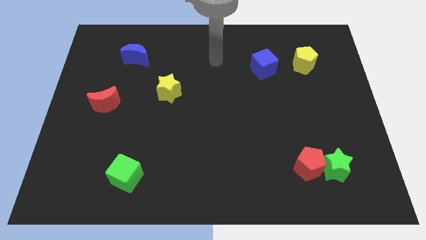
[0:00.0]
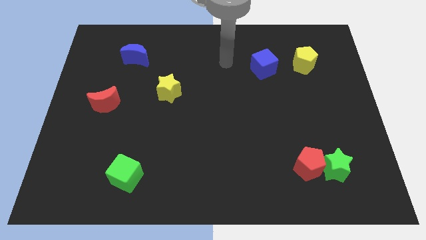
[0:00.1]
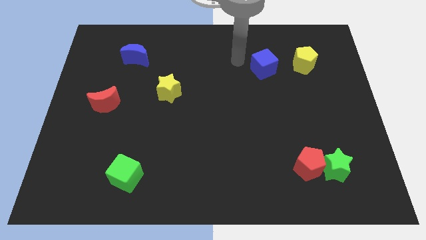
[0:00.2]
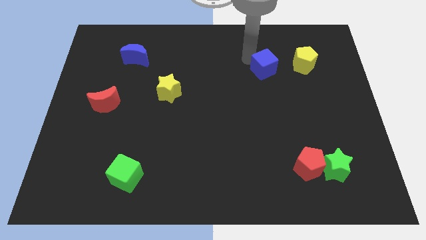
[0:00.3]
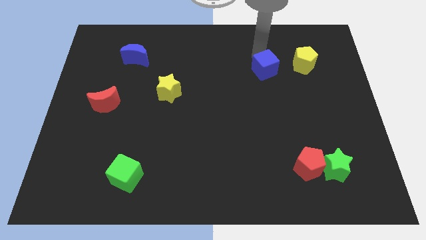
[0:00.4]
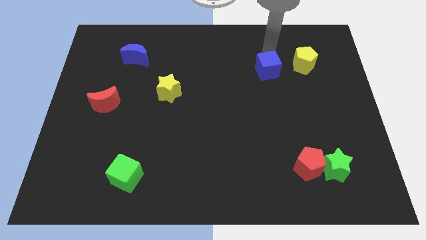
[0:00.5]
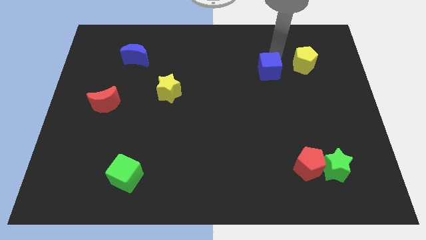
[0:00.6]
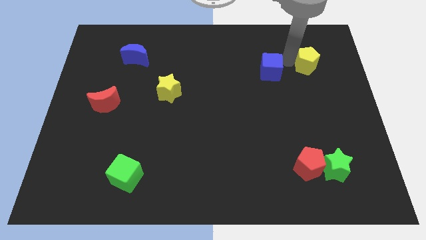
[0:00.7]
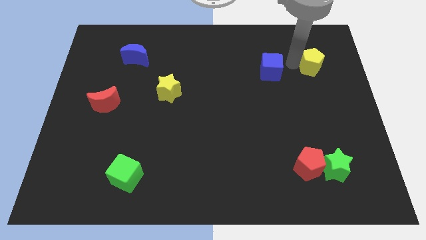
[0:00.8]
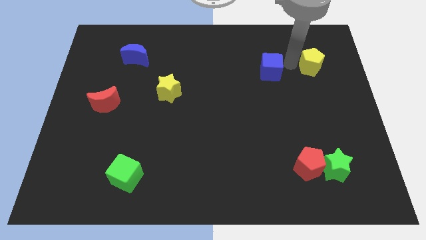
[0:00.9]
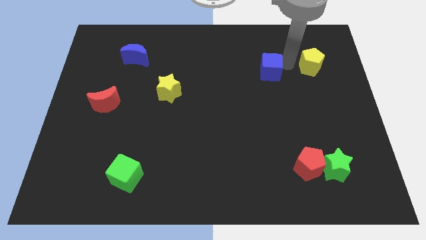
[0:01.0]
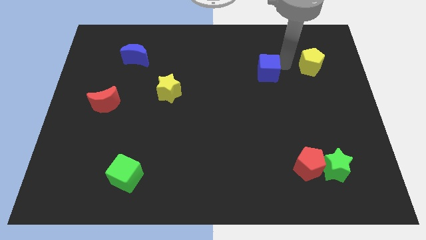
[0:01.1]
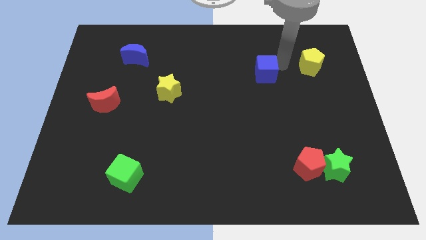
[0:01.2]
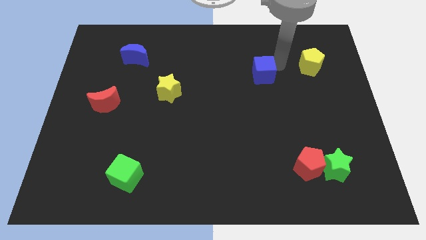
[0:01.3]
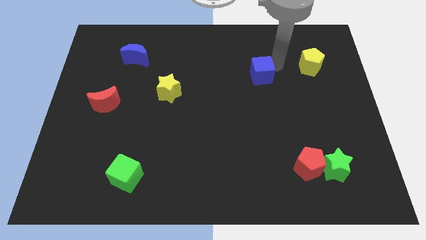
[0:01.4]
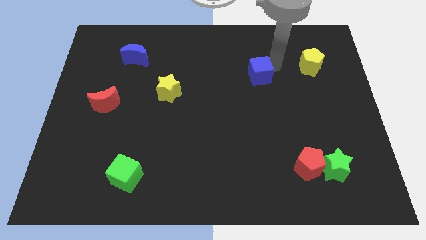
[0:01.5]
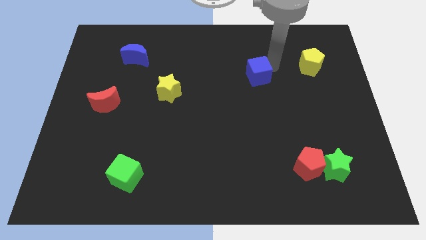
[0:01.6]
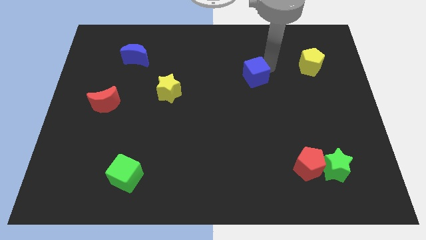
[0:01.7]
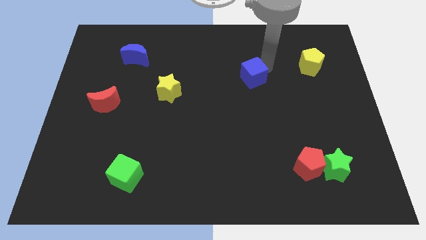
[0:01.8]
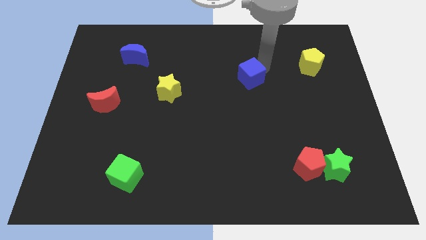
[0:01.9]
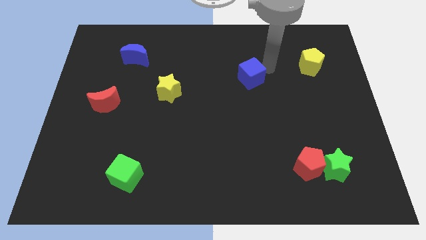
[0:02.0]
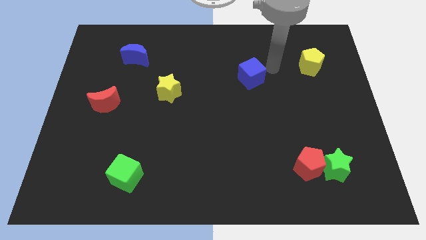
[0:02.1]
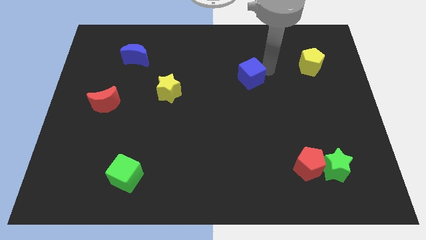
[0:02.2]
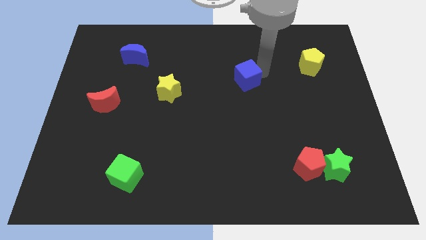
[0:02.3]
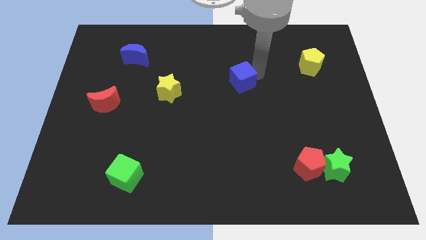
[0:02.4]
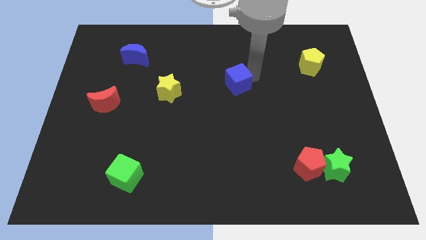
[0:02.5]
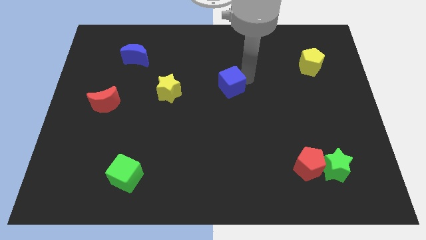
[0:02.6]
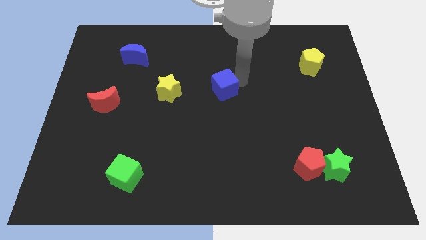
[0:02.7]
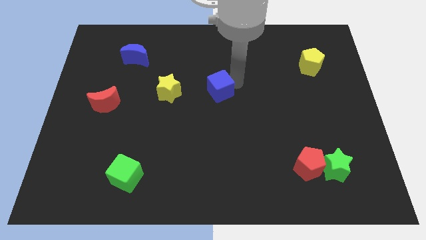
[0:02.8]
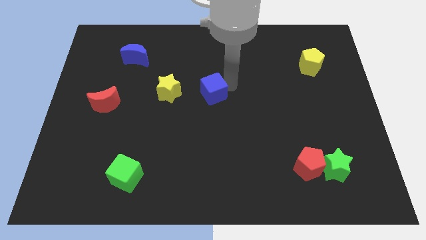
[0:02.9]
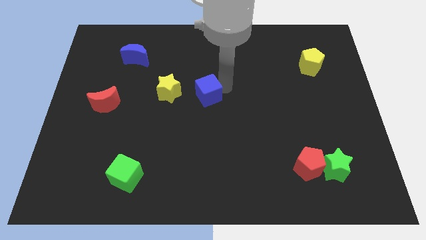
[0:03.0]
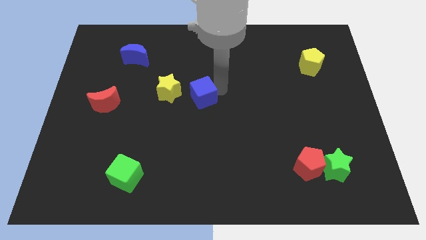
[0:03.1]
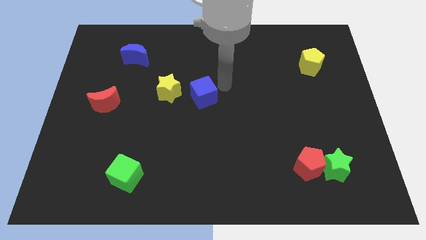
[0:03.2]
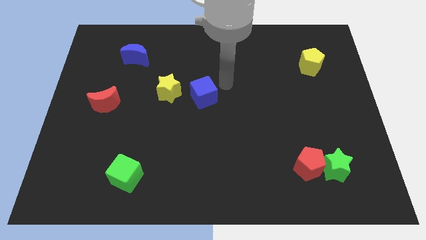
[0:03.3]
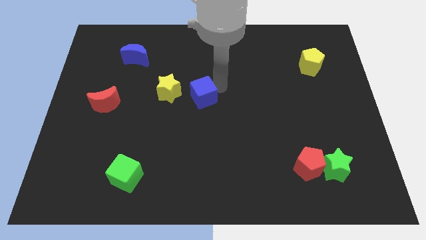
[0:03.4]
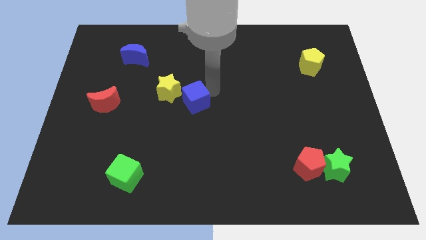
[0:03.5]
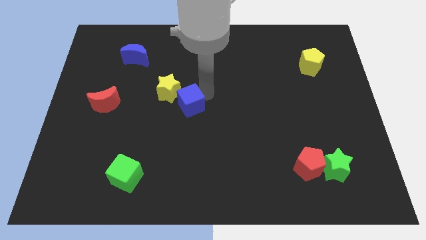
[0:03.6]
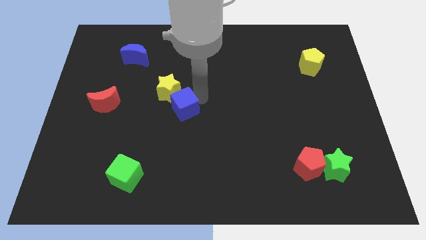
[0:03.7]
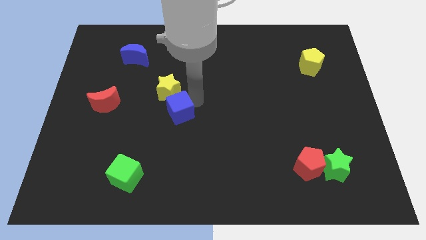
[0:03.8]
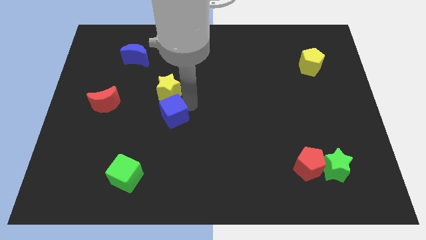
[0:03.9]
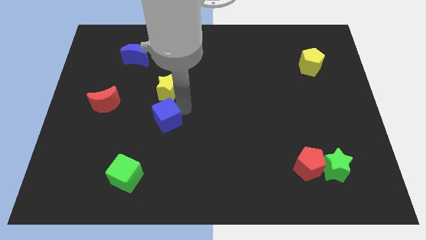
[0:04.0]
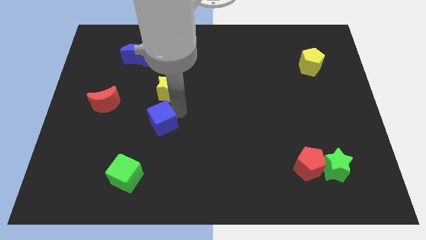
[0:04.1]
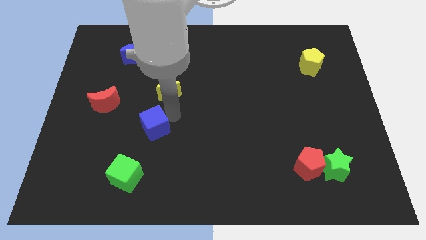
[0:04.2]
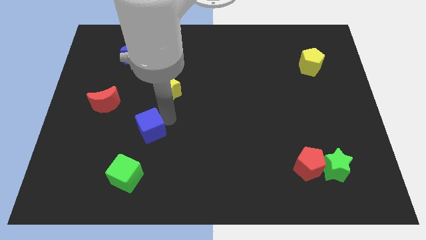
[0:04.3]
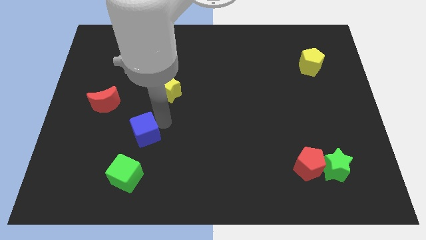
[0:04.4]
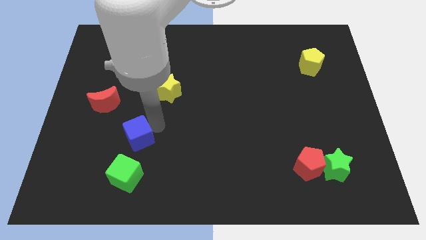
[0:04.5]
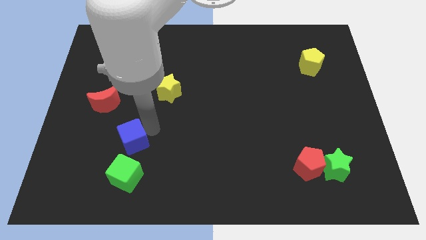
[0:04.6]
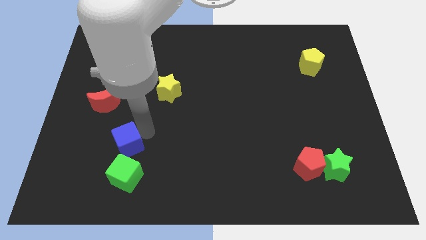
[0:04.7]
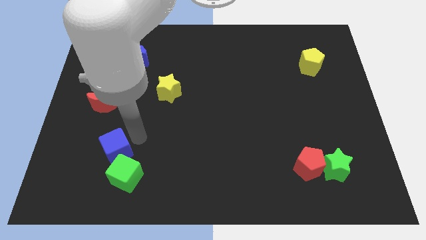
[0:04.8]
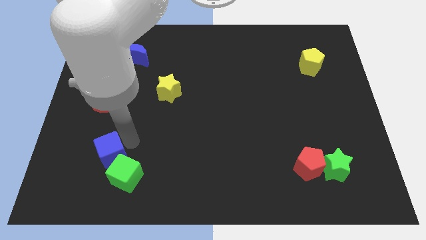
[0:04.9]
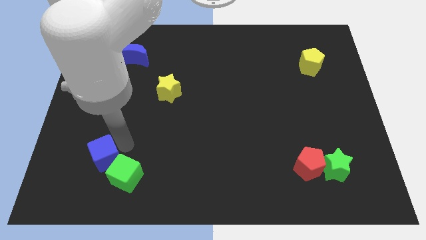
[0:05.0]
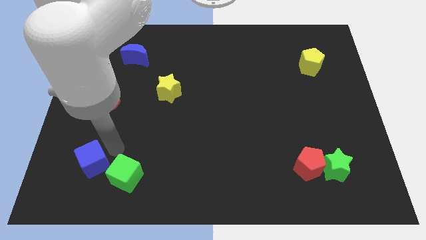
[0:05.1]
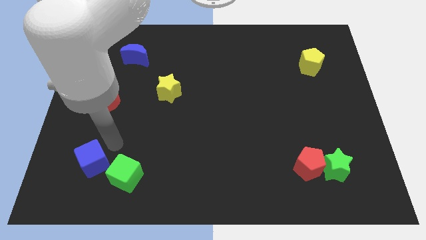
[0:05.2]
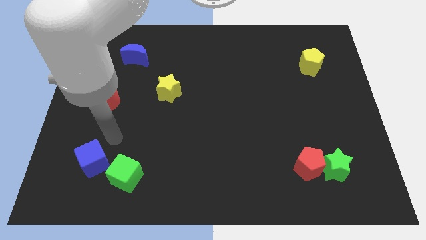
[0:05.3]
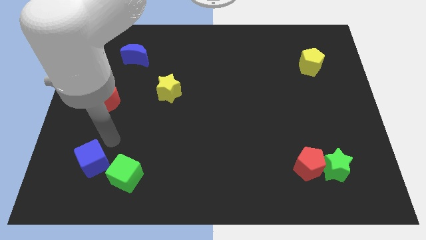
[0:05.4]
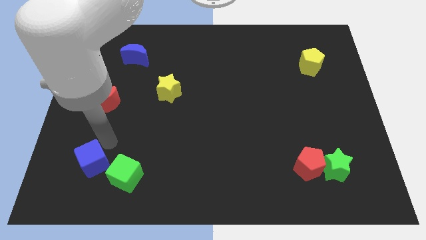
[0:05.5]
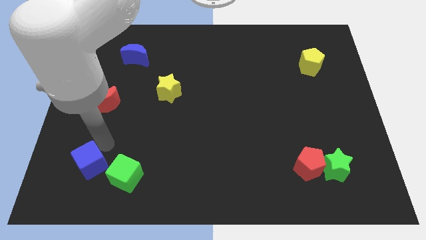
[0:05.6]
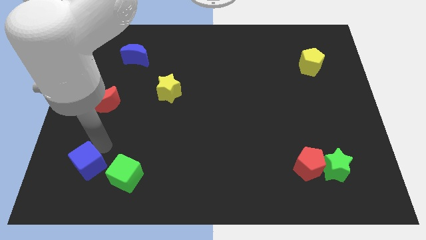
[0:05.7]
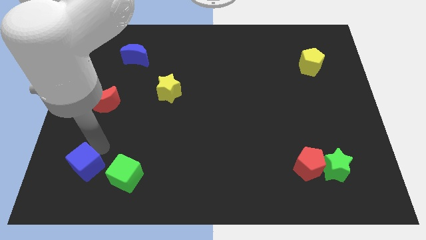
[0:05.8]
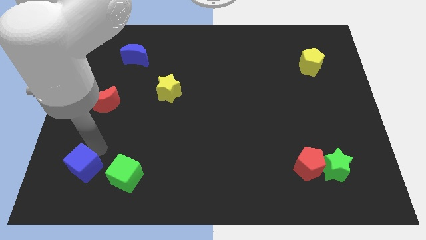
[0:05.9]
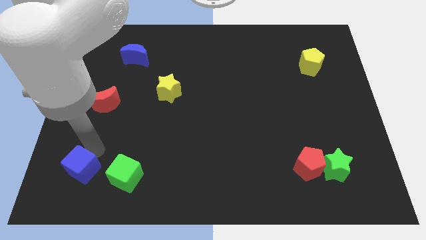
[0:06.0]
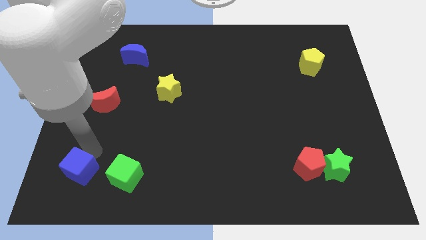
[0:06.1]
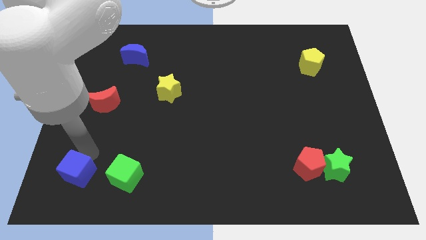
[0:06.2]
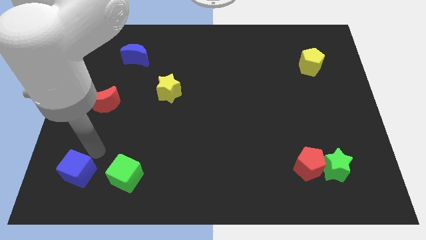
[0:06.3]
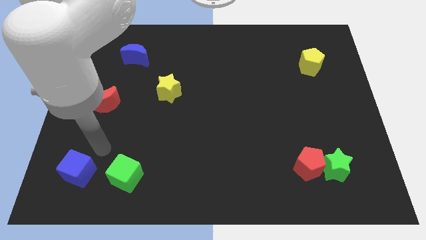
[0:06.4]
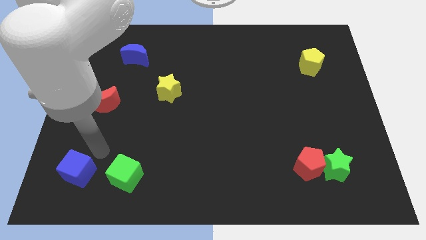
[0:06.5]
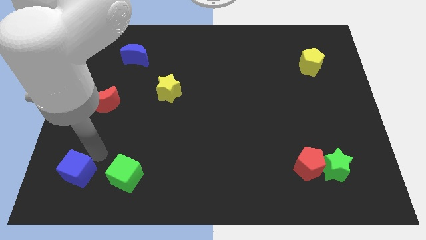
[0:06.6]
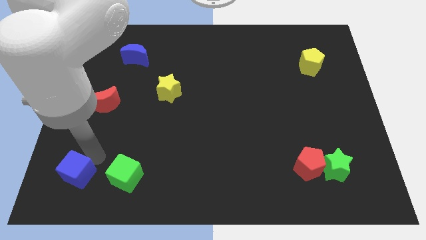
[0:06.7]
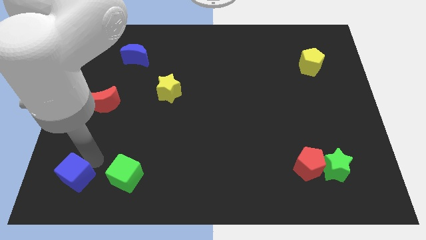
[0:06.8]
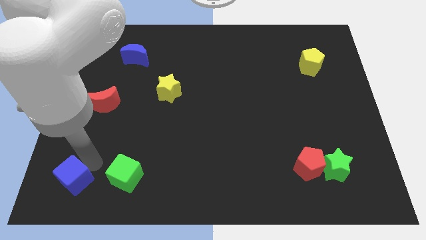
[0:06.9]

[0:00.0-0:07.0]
put the blue cube to the bottom left of the board

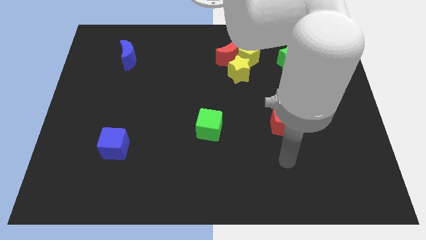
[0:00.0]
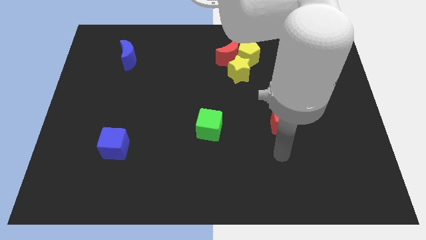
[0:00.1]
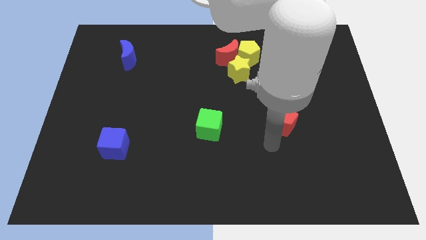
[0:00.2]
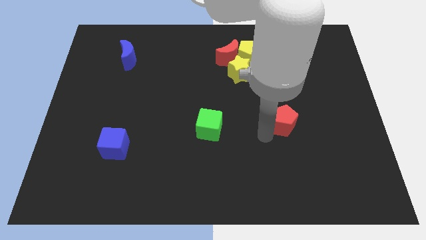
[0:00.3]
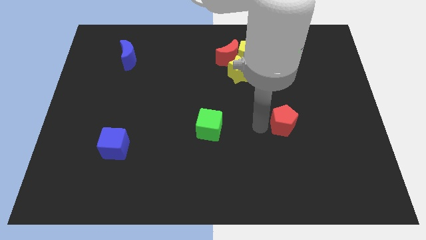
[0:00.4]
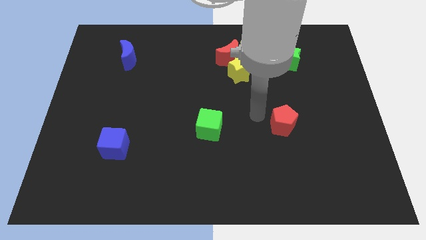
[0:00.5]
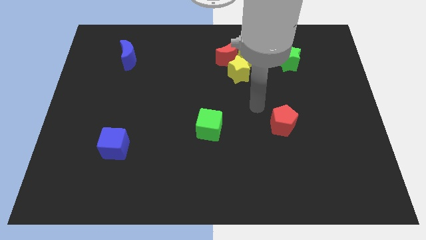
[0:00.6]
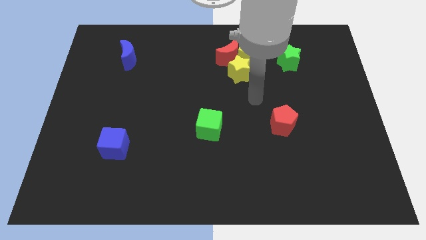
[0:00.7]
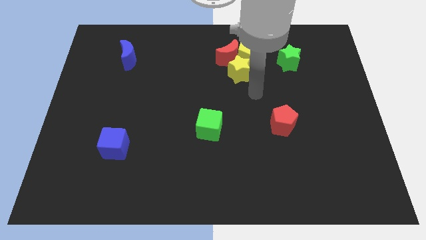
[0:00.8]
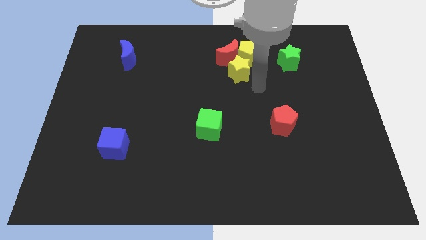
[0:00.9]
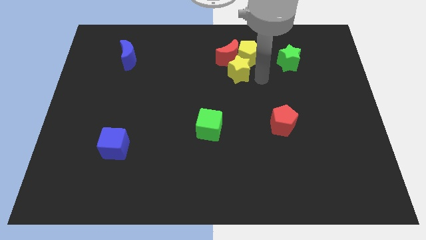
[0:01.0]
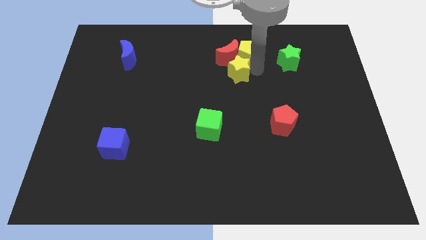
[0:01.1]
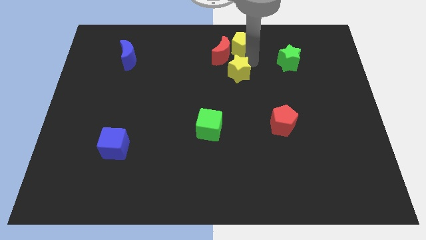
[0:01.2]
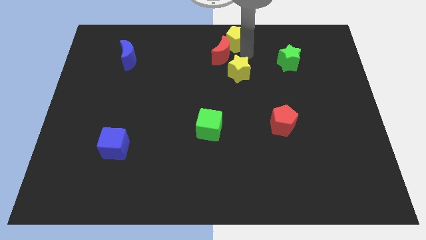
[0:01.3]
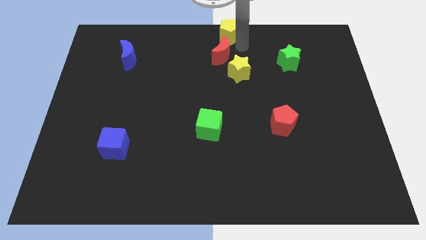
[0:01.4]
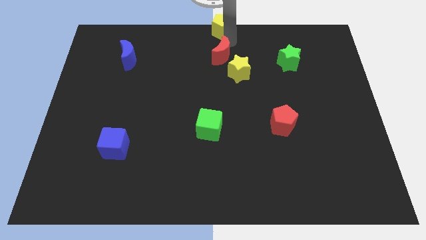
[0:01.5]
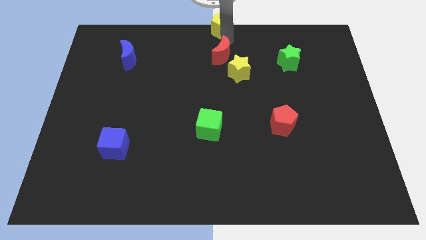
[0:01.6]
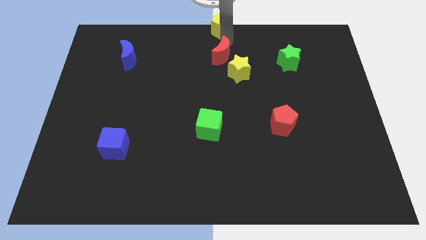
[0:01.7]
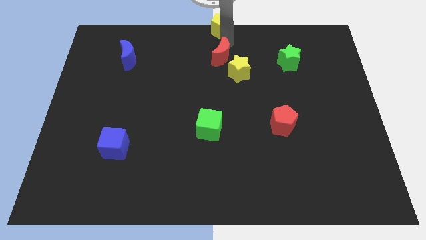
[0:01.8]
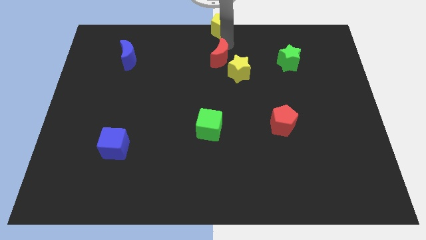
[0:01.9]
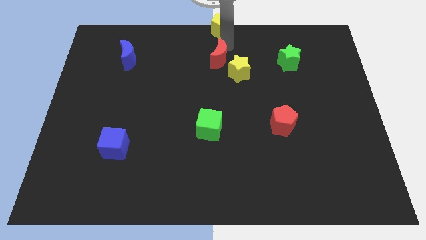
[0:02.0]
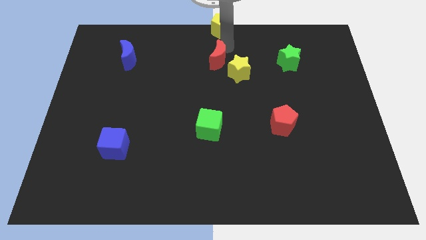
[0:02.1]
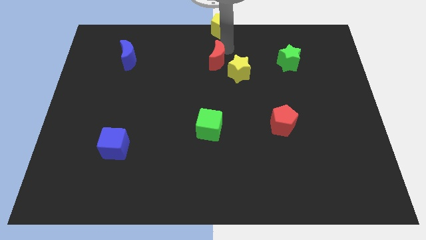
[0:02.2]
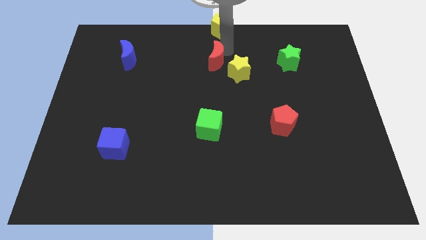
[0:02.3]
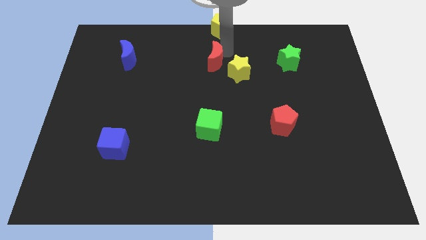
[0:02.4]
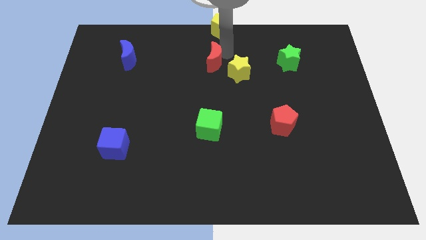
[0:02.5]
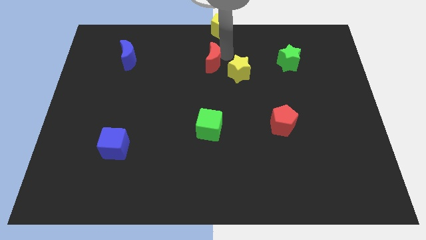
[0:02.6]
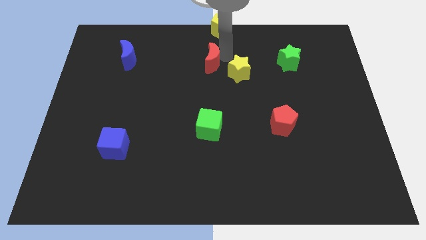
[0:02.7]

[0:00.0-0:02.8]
slide the red moon to the center
